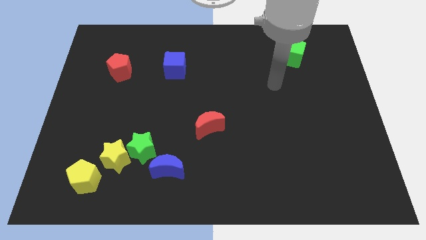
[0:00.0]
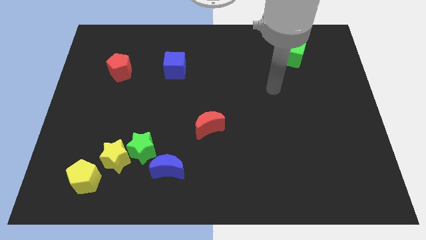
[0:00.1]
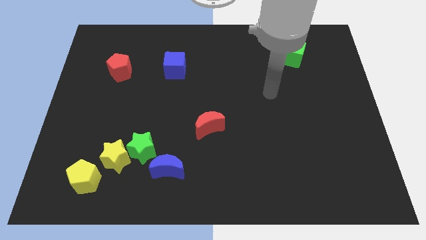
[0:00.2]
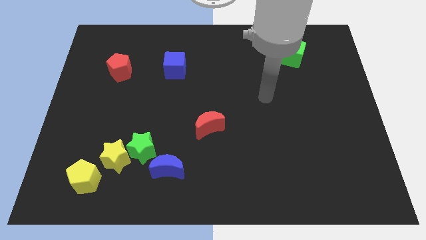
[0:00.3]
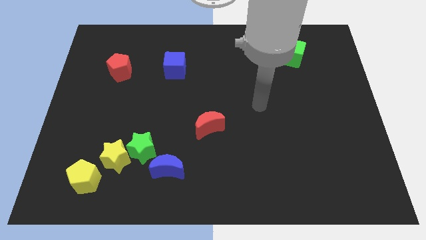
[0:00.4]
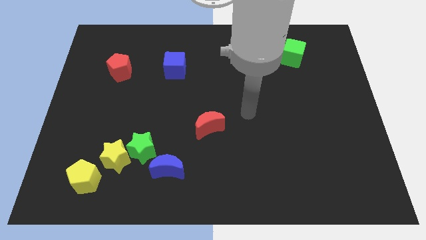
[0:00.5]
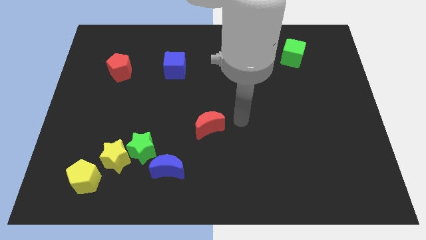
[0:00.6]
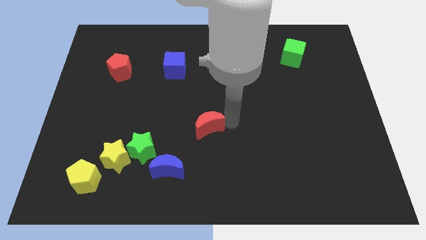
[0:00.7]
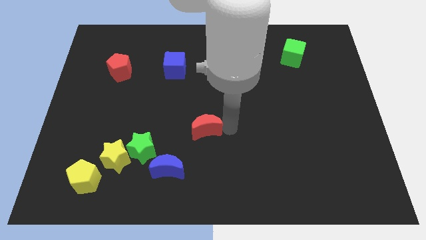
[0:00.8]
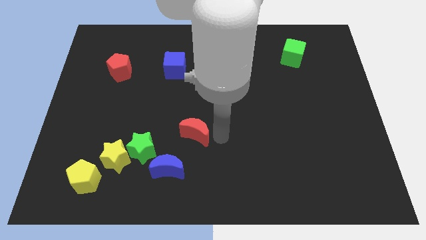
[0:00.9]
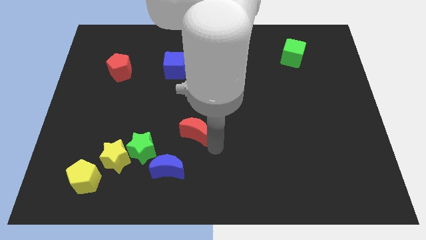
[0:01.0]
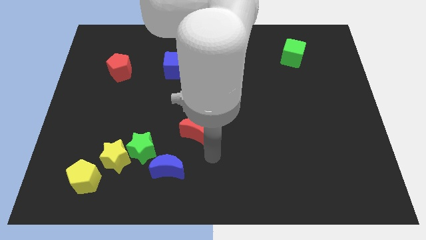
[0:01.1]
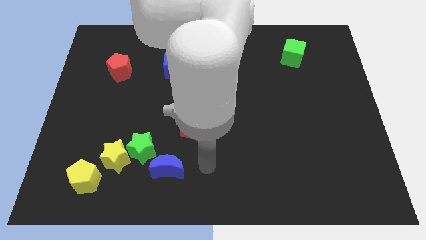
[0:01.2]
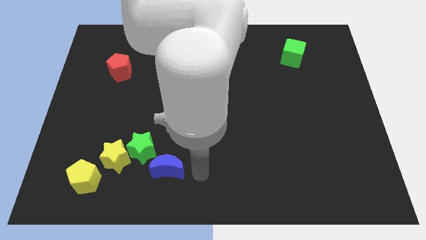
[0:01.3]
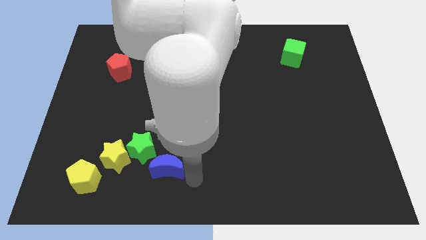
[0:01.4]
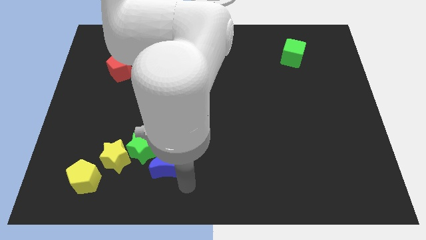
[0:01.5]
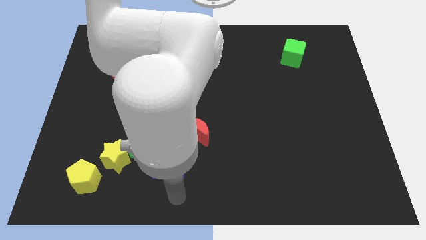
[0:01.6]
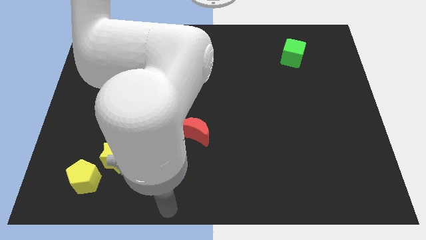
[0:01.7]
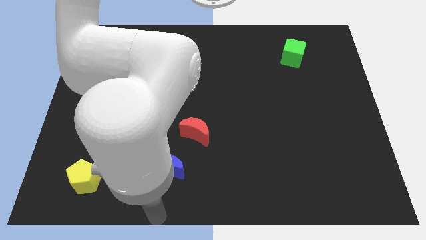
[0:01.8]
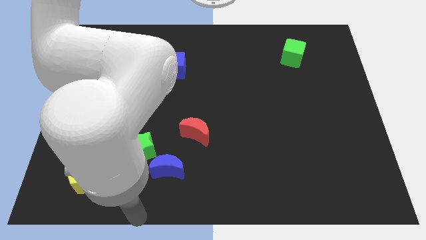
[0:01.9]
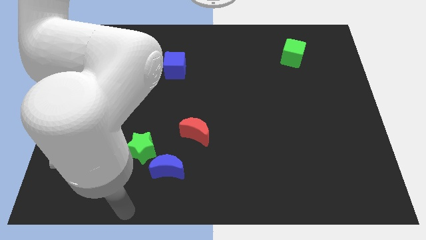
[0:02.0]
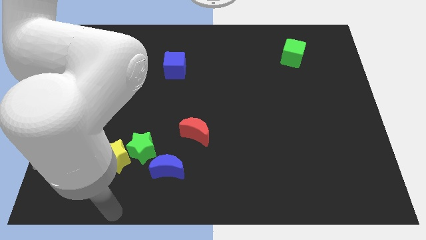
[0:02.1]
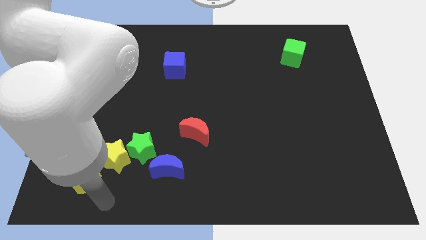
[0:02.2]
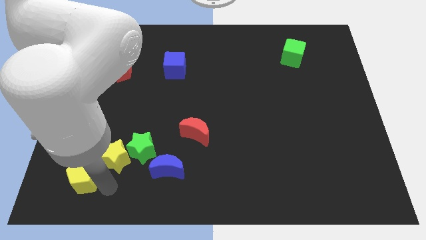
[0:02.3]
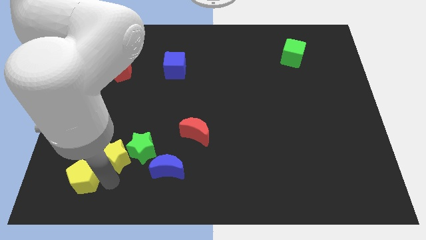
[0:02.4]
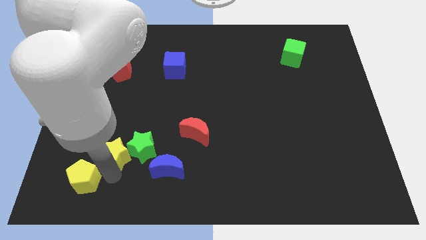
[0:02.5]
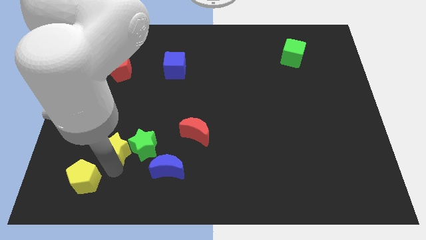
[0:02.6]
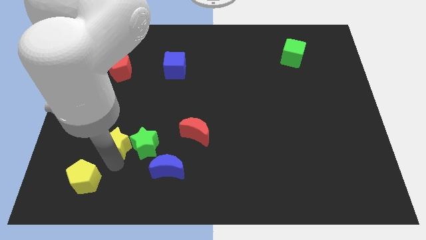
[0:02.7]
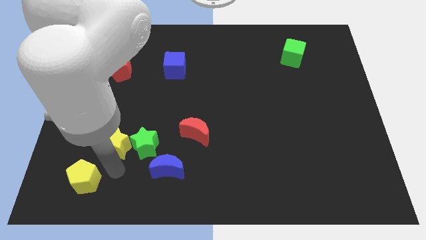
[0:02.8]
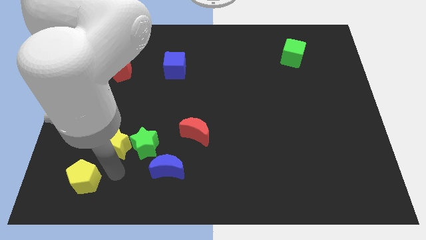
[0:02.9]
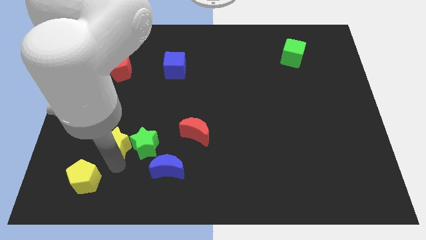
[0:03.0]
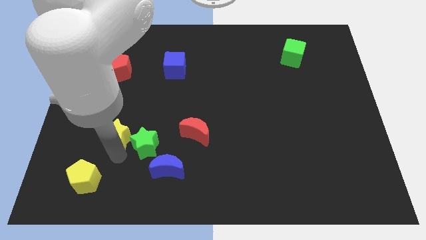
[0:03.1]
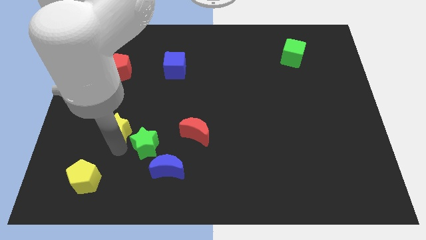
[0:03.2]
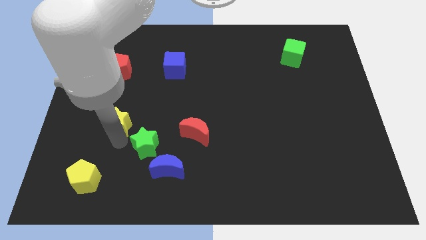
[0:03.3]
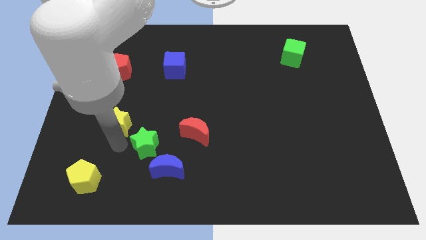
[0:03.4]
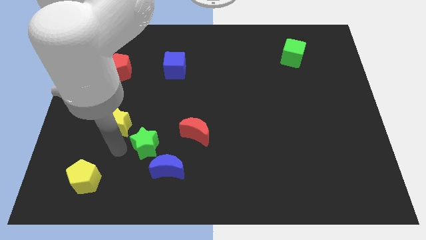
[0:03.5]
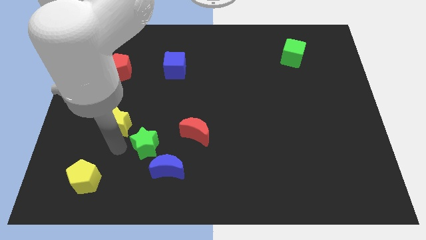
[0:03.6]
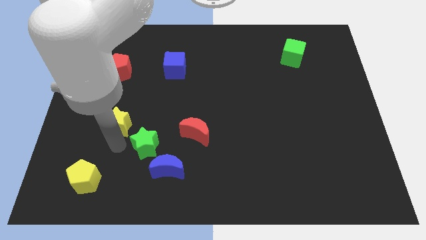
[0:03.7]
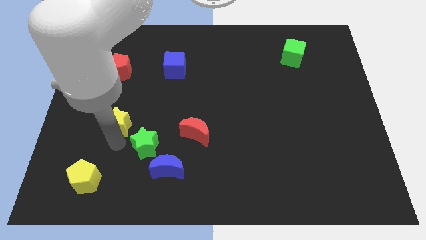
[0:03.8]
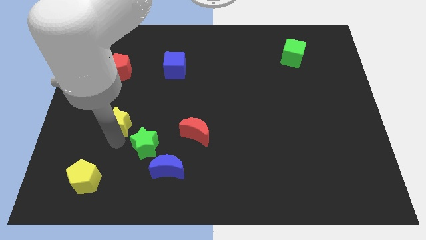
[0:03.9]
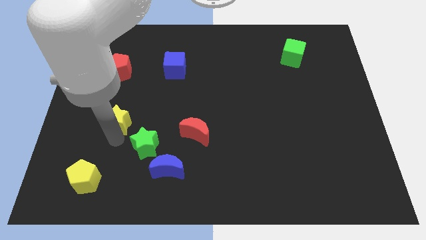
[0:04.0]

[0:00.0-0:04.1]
separate the yellow star from the green star and yellow pentagon

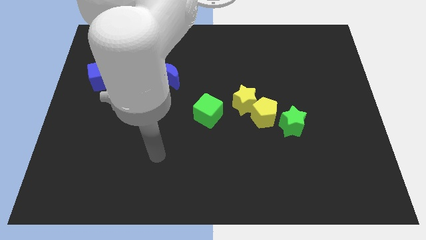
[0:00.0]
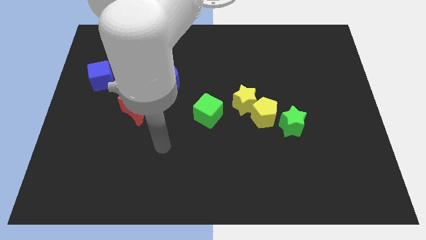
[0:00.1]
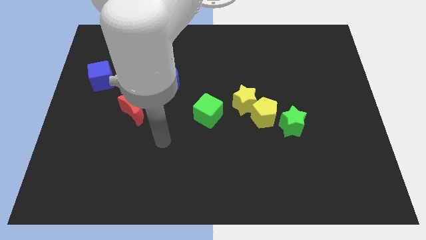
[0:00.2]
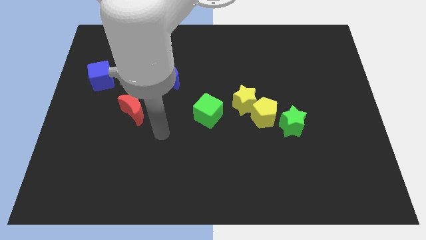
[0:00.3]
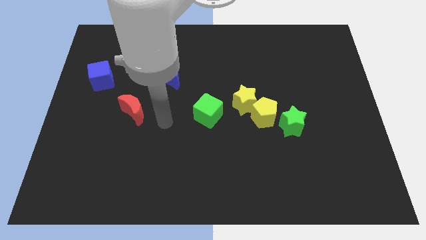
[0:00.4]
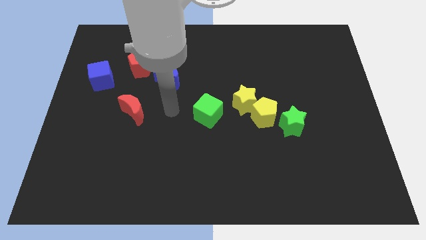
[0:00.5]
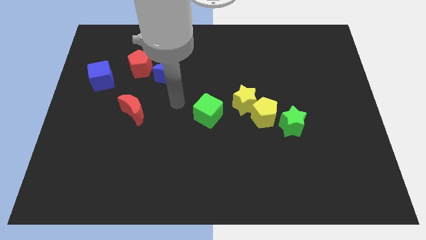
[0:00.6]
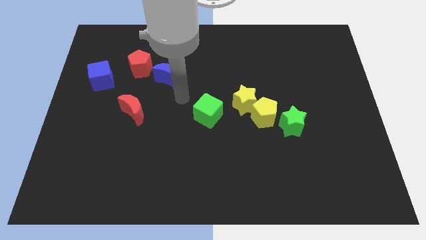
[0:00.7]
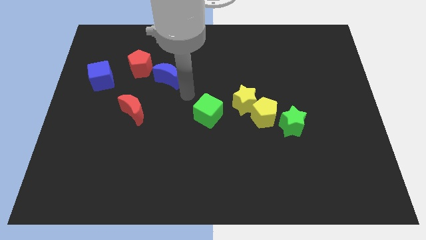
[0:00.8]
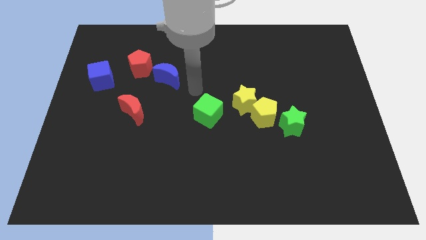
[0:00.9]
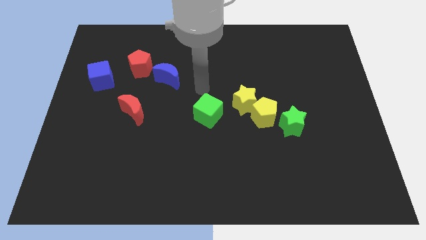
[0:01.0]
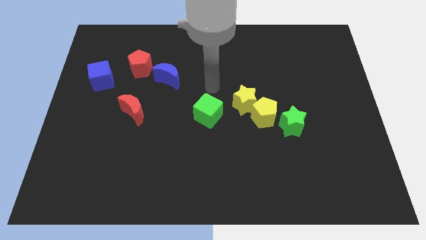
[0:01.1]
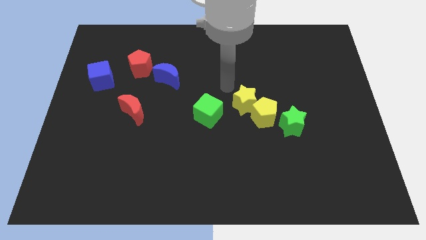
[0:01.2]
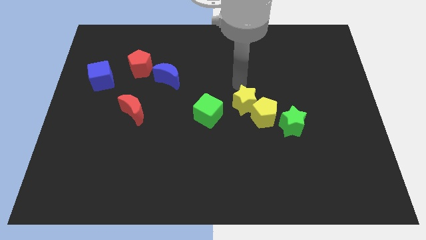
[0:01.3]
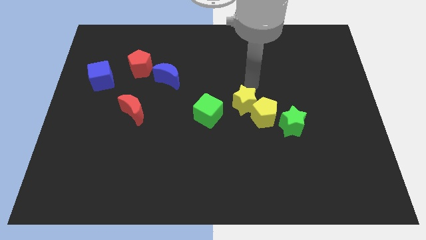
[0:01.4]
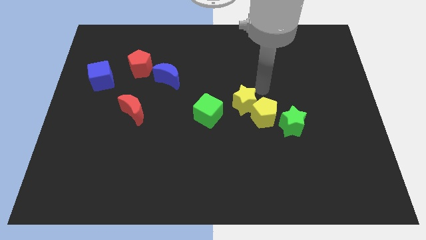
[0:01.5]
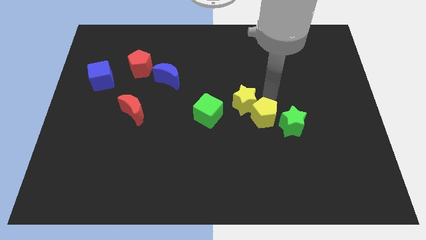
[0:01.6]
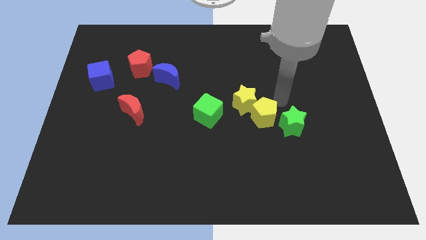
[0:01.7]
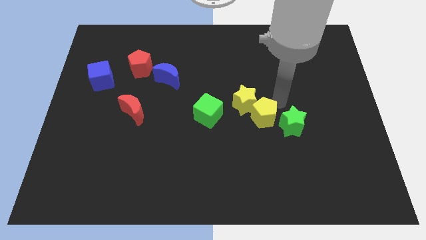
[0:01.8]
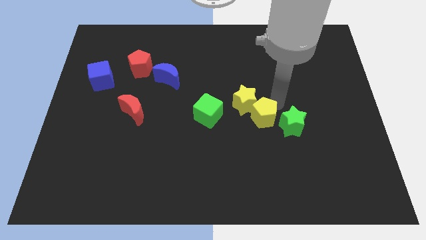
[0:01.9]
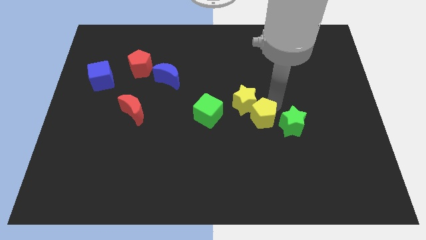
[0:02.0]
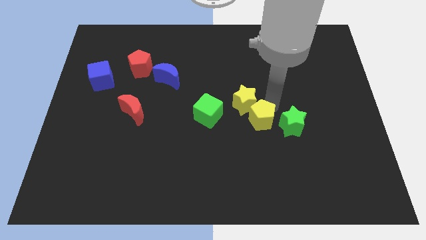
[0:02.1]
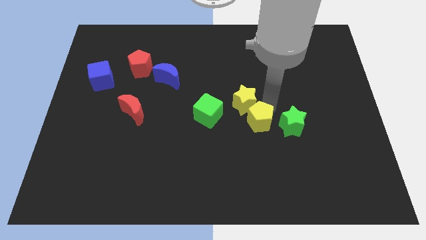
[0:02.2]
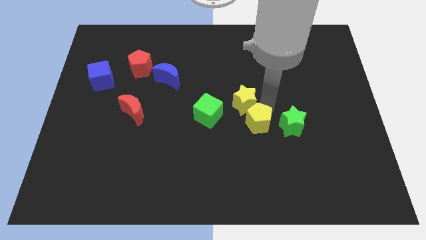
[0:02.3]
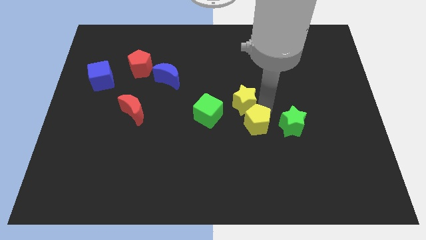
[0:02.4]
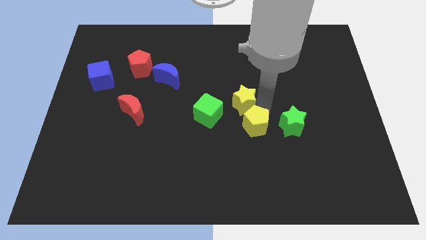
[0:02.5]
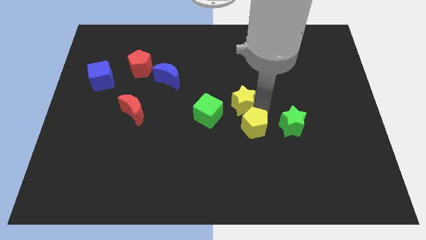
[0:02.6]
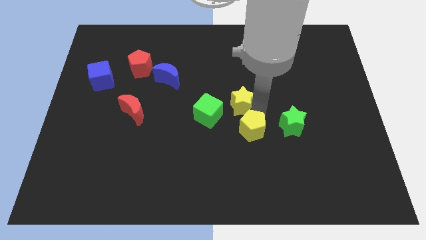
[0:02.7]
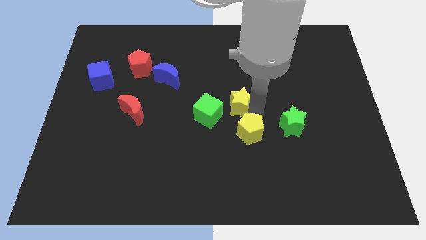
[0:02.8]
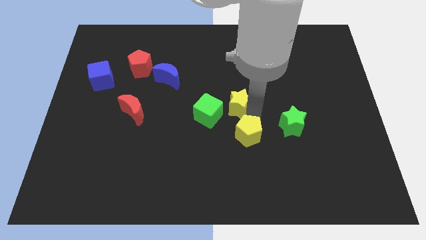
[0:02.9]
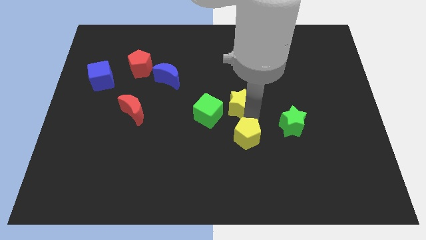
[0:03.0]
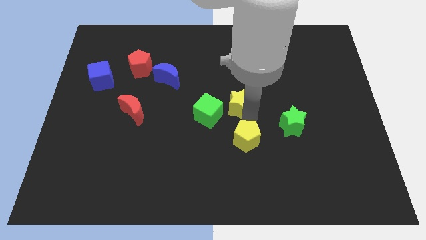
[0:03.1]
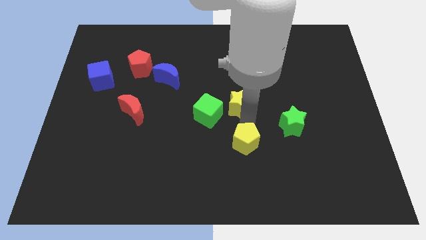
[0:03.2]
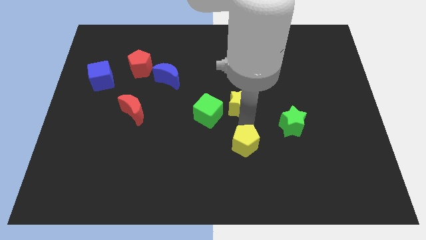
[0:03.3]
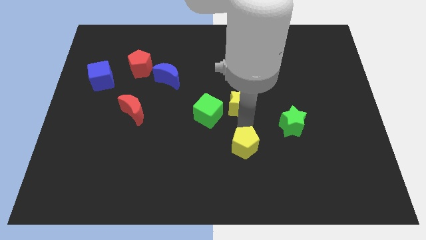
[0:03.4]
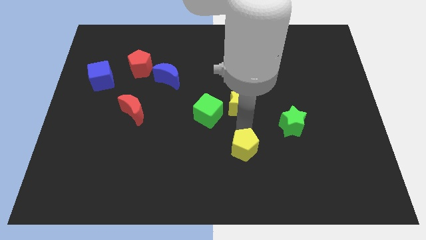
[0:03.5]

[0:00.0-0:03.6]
pull the yellow pentagon apart from the yellow star and green star

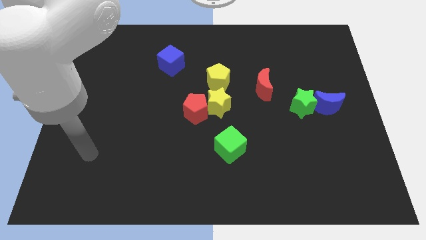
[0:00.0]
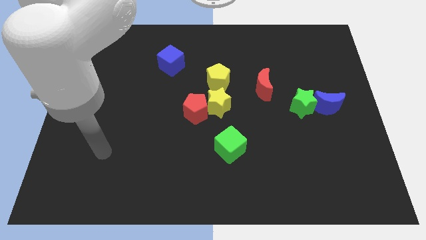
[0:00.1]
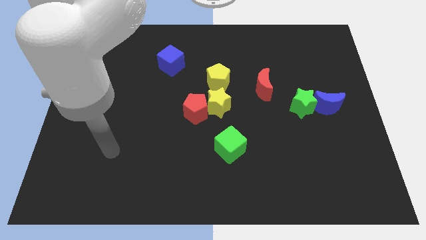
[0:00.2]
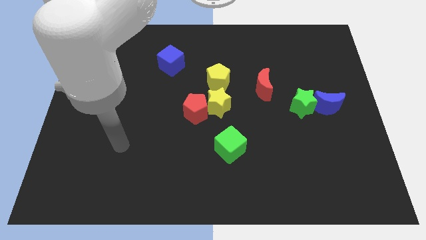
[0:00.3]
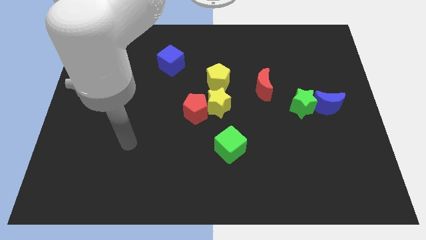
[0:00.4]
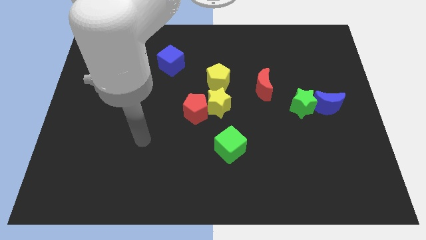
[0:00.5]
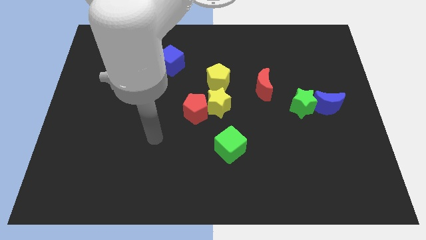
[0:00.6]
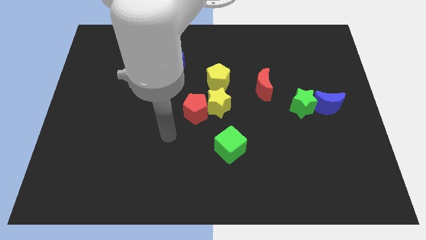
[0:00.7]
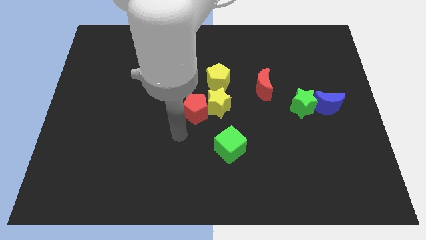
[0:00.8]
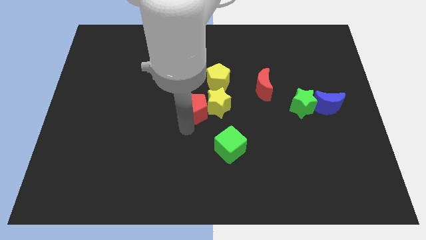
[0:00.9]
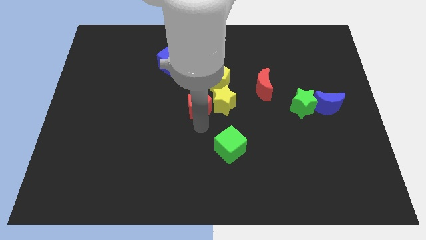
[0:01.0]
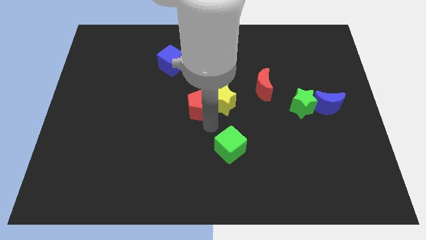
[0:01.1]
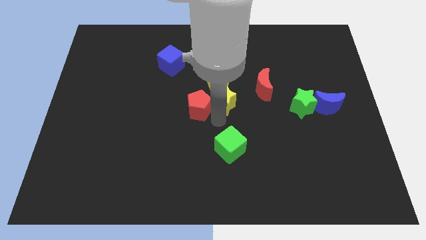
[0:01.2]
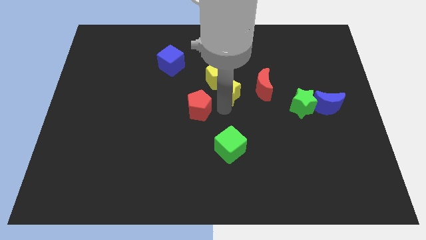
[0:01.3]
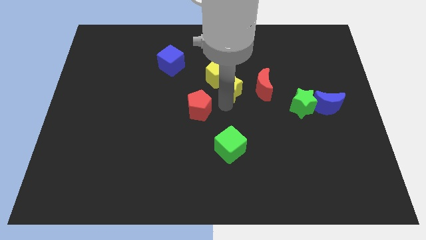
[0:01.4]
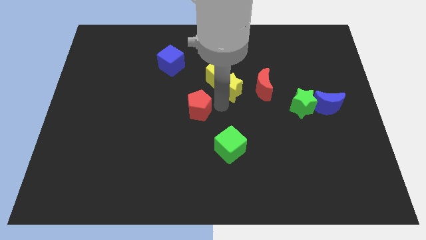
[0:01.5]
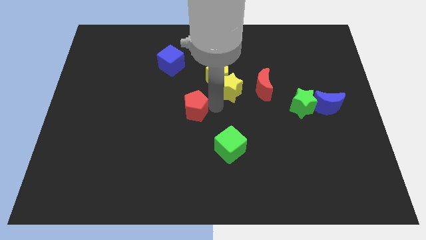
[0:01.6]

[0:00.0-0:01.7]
separate the red pentagon from the yellow star

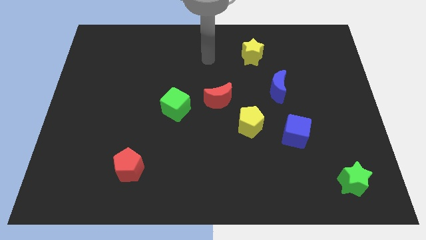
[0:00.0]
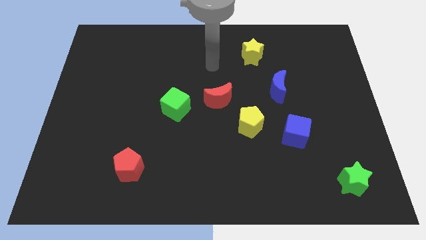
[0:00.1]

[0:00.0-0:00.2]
pull the red moon apart from the yellow pentagon
